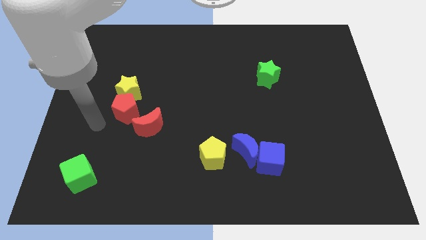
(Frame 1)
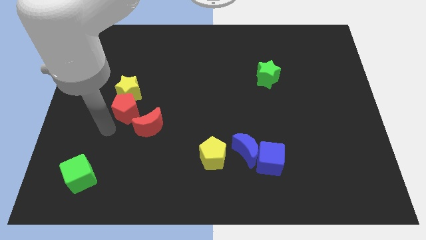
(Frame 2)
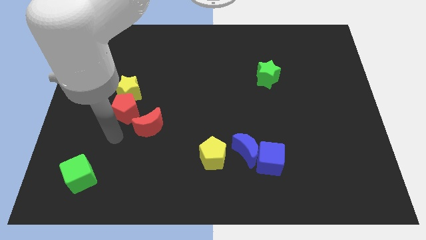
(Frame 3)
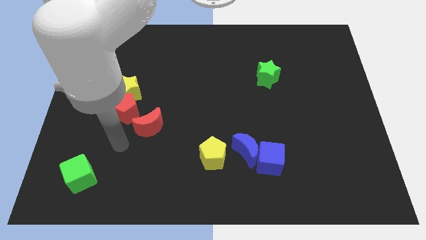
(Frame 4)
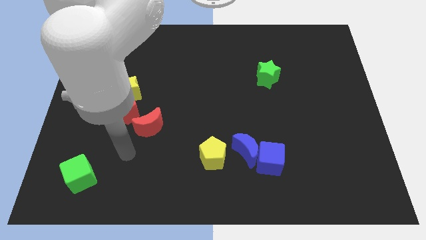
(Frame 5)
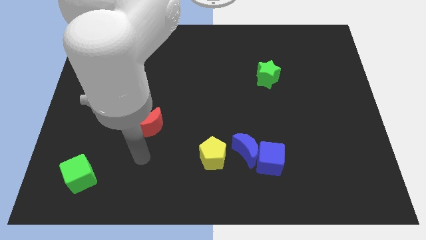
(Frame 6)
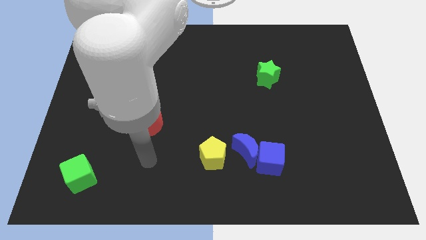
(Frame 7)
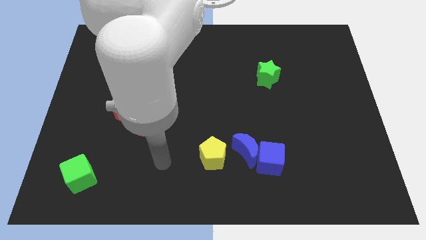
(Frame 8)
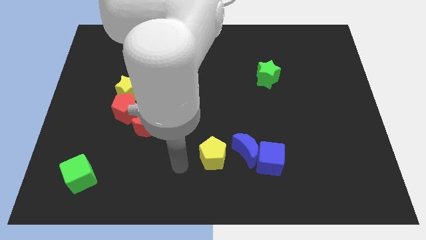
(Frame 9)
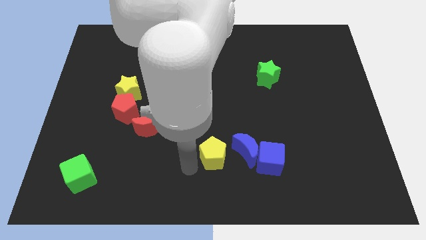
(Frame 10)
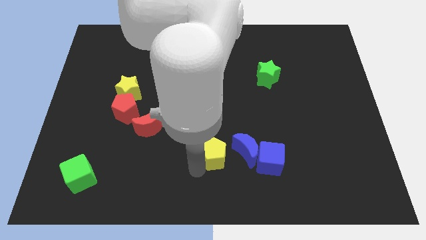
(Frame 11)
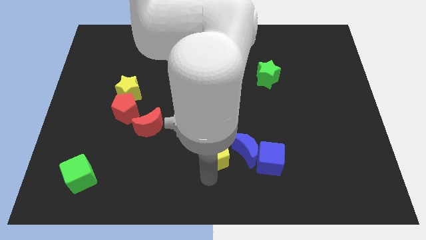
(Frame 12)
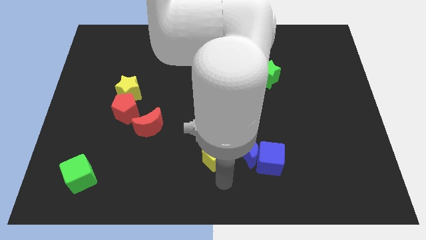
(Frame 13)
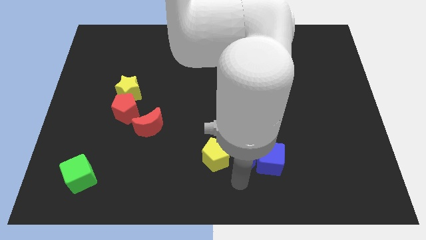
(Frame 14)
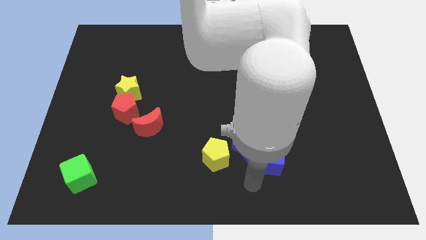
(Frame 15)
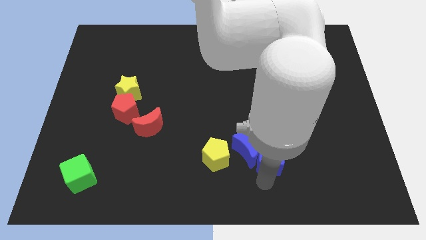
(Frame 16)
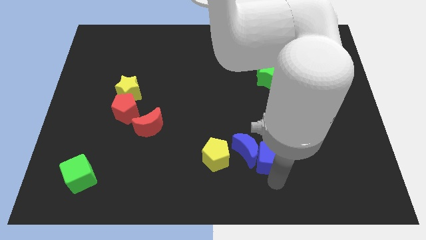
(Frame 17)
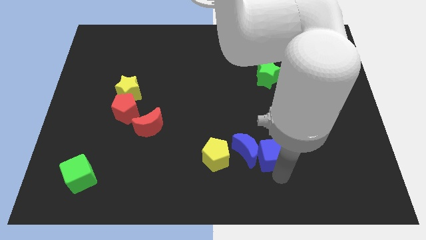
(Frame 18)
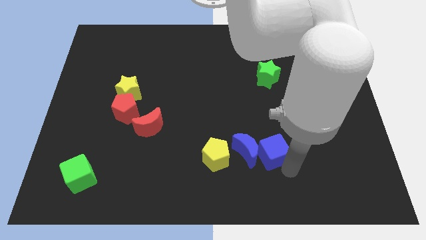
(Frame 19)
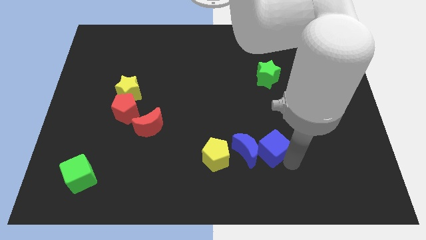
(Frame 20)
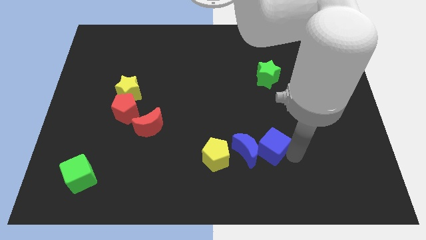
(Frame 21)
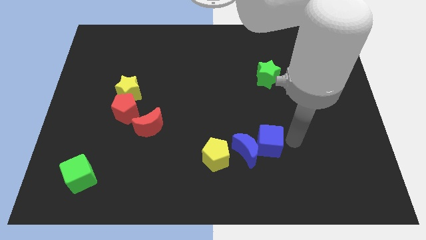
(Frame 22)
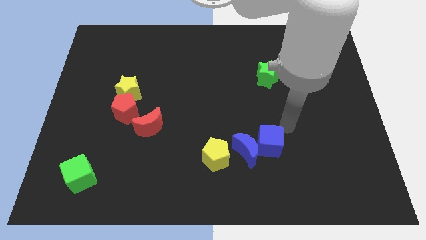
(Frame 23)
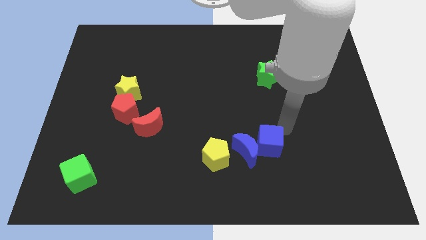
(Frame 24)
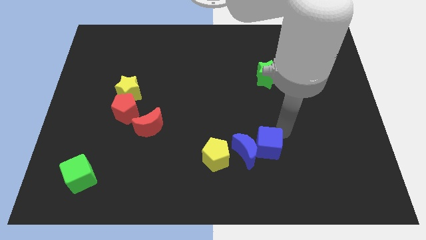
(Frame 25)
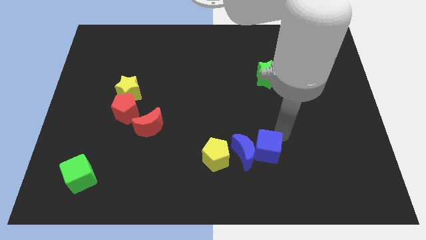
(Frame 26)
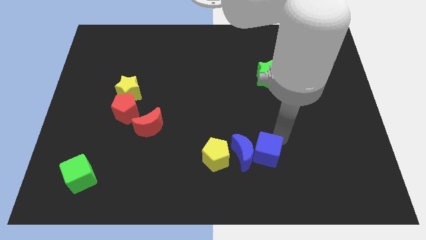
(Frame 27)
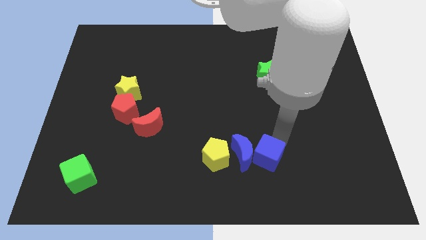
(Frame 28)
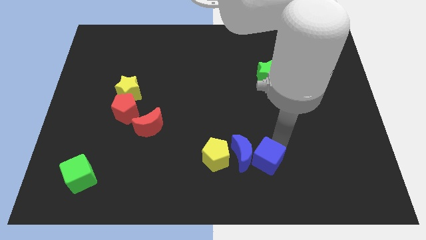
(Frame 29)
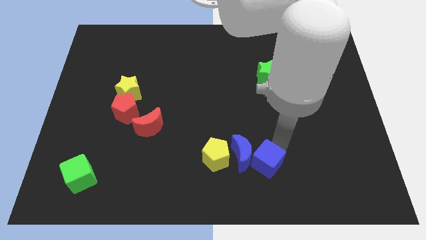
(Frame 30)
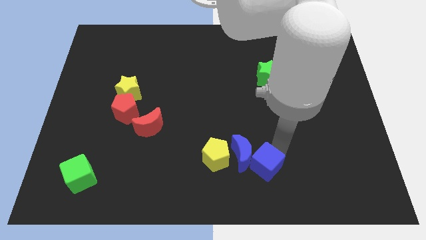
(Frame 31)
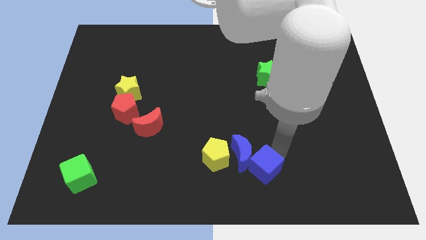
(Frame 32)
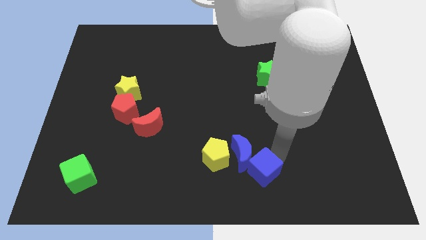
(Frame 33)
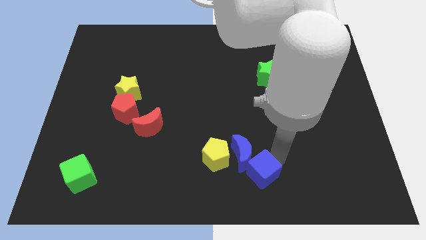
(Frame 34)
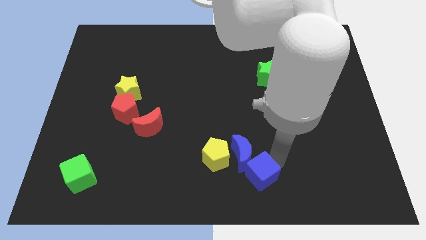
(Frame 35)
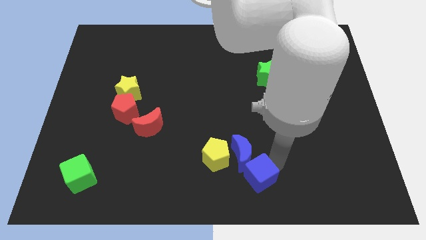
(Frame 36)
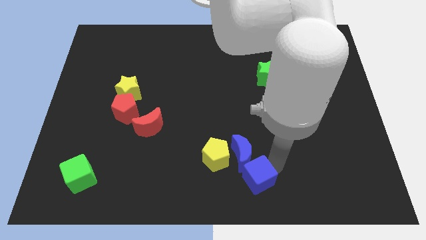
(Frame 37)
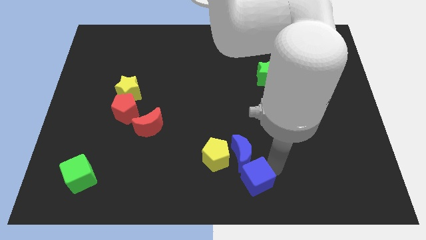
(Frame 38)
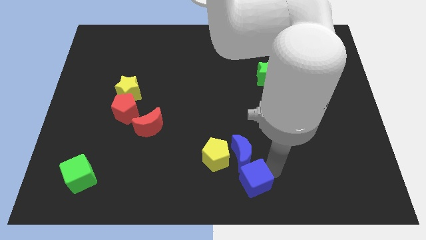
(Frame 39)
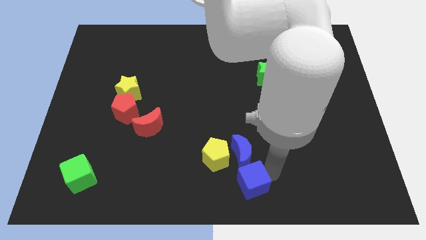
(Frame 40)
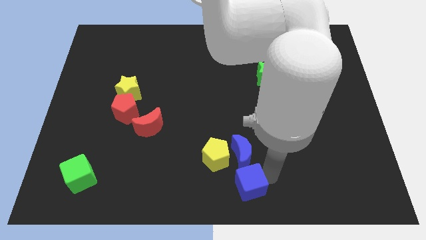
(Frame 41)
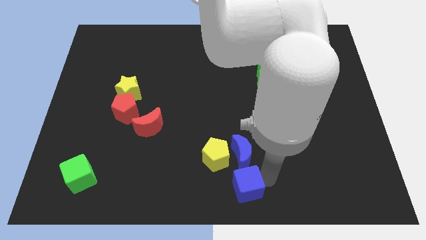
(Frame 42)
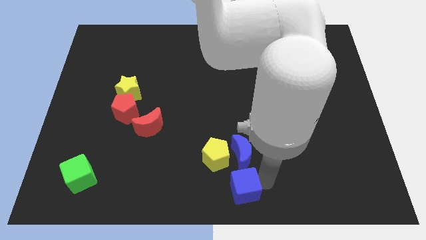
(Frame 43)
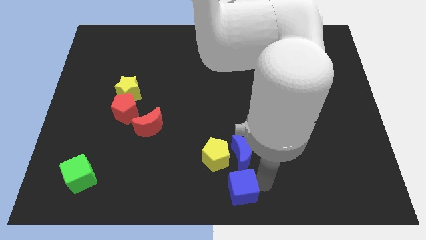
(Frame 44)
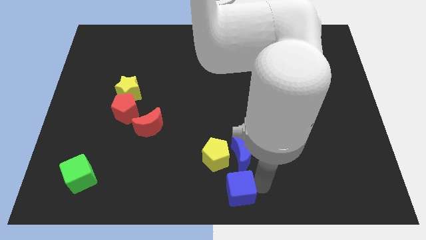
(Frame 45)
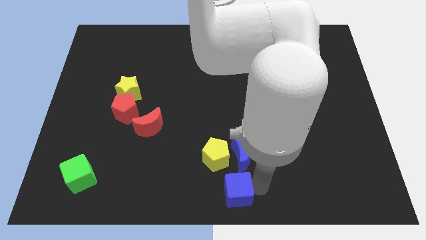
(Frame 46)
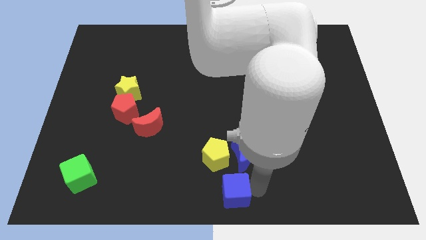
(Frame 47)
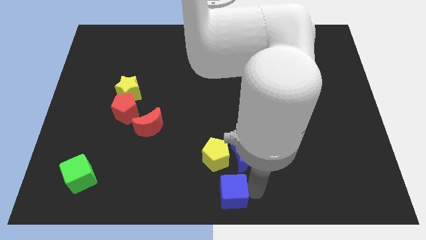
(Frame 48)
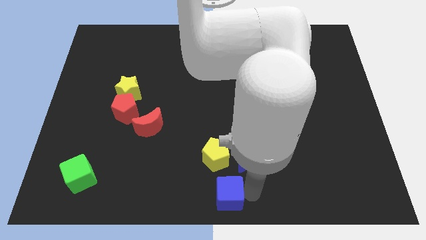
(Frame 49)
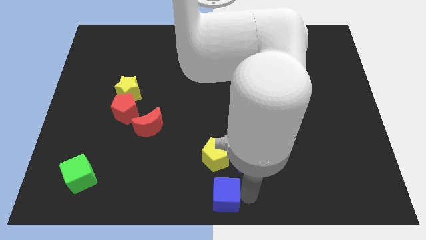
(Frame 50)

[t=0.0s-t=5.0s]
push the blue cube slightly to the left

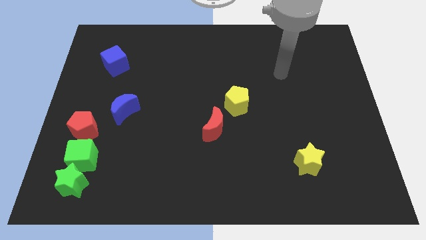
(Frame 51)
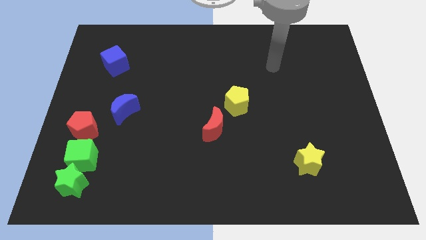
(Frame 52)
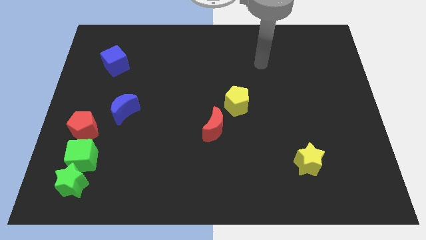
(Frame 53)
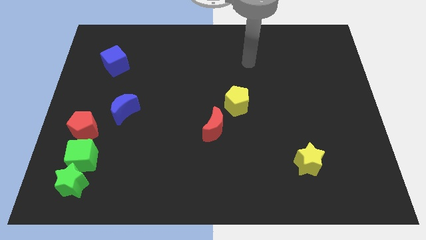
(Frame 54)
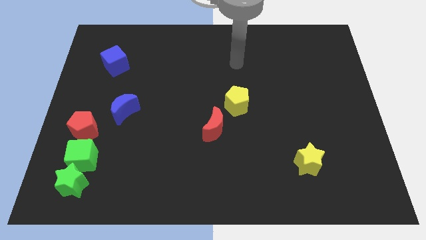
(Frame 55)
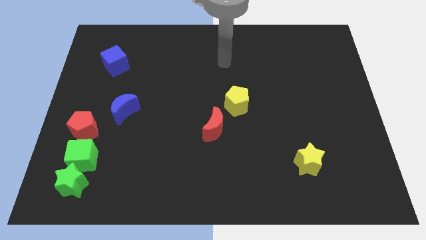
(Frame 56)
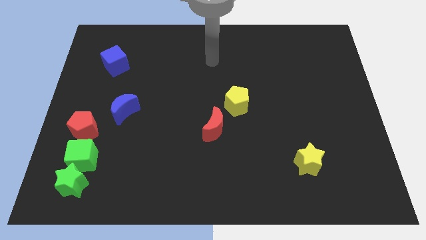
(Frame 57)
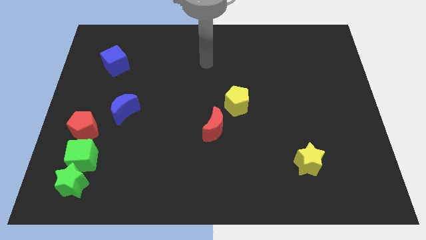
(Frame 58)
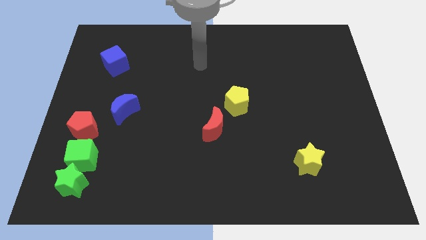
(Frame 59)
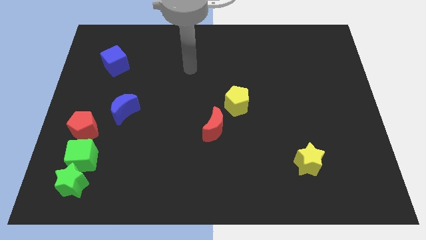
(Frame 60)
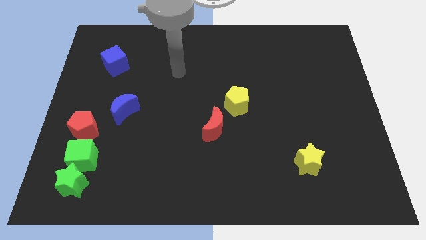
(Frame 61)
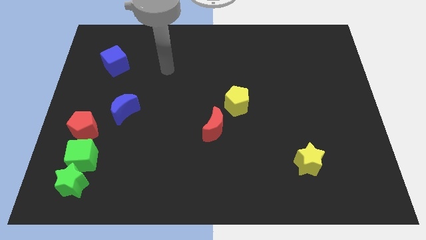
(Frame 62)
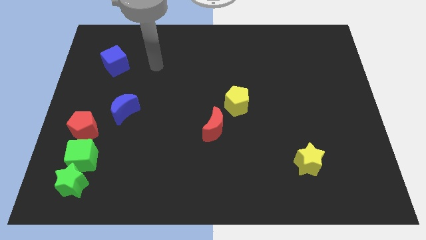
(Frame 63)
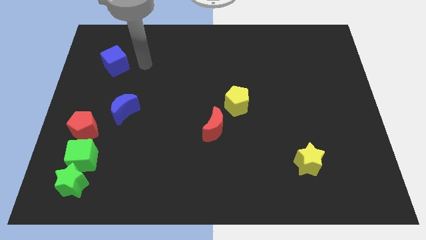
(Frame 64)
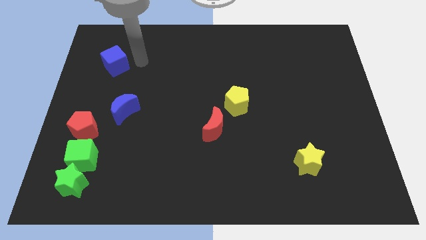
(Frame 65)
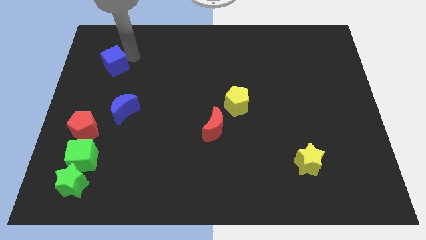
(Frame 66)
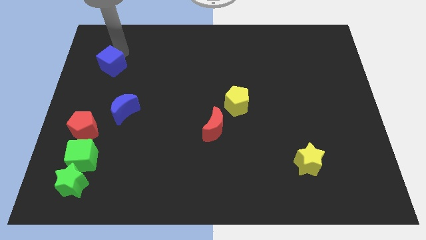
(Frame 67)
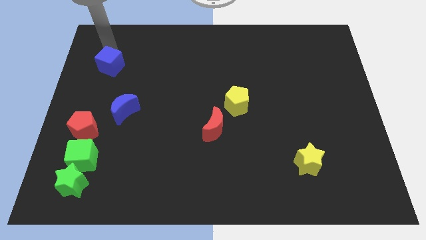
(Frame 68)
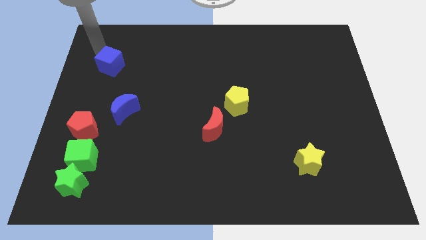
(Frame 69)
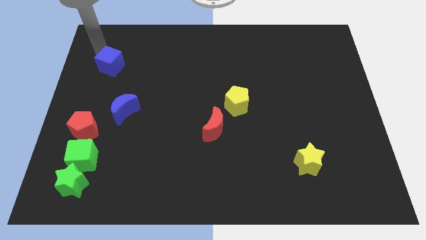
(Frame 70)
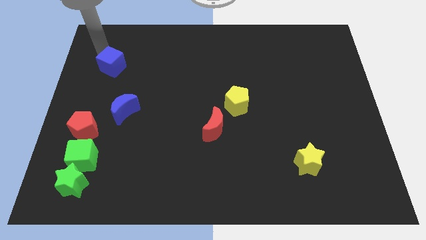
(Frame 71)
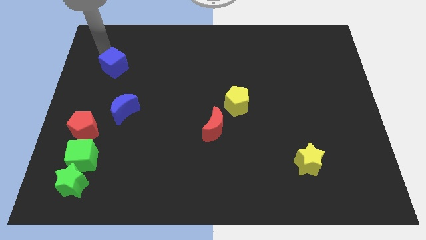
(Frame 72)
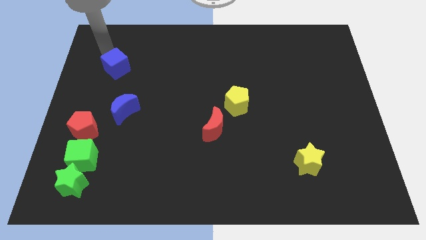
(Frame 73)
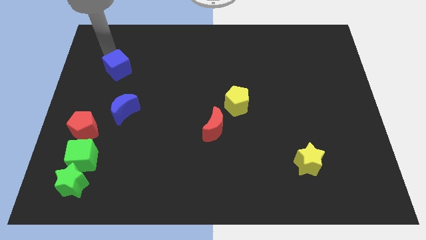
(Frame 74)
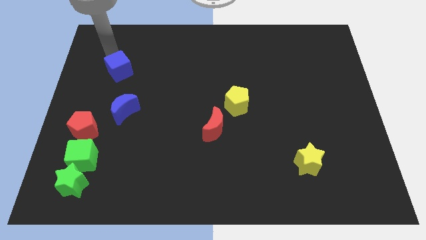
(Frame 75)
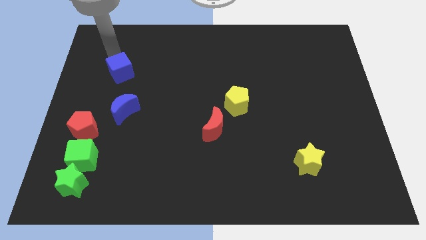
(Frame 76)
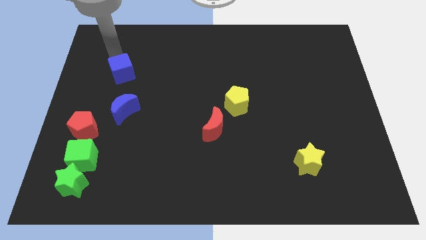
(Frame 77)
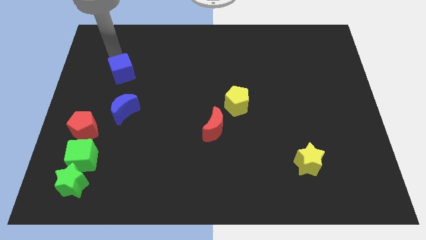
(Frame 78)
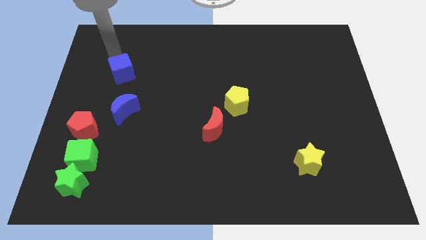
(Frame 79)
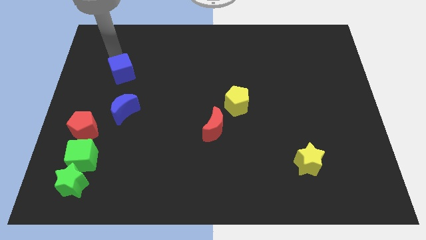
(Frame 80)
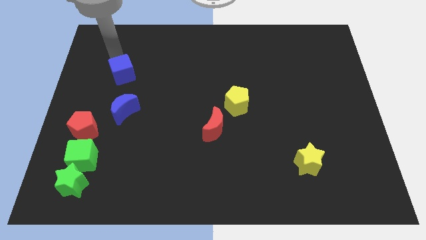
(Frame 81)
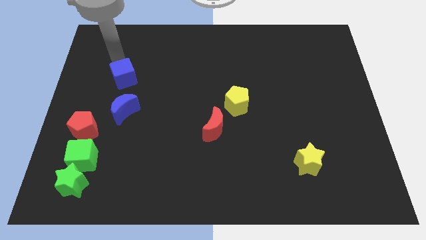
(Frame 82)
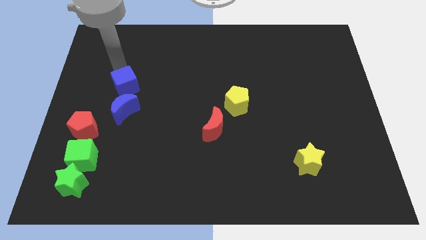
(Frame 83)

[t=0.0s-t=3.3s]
slide the blue cube down and right slightly
